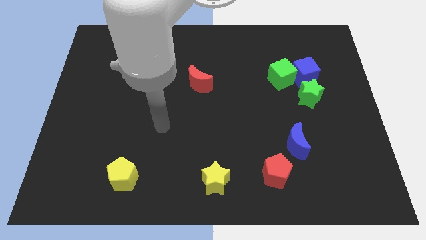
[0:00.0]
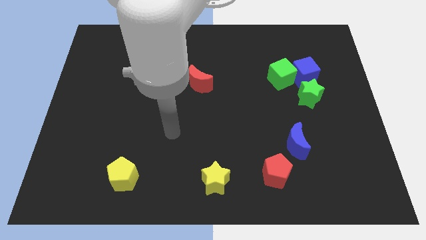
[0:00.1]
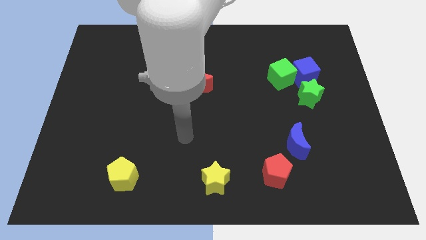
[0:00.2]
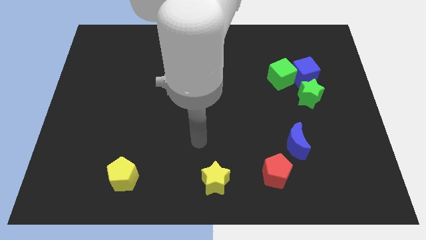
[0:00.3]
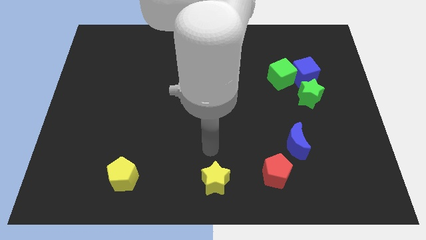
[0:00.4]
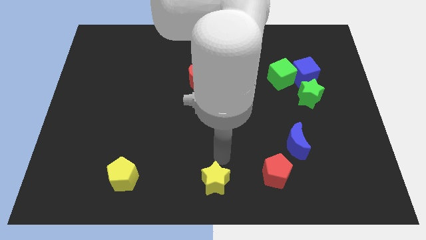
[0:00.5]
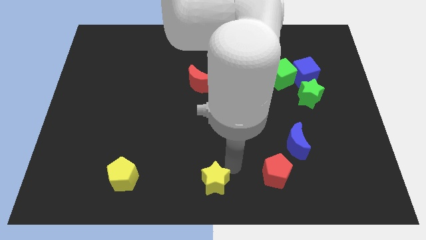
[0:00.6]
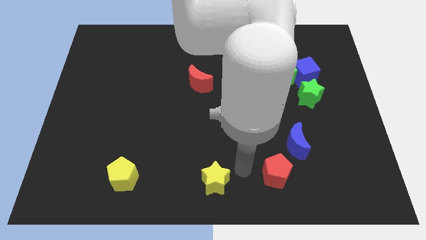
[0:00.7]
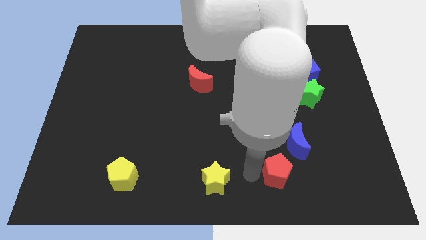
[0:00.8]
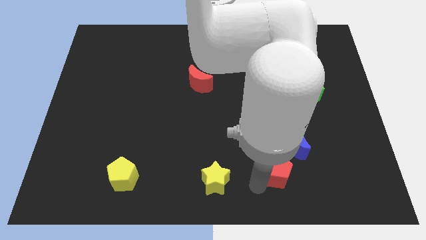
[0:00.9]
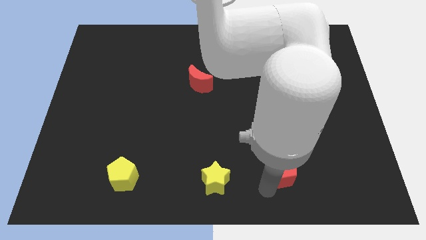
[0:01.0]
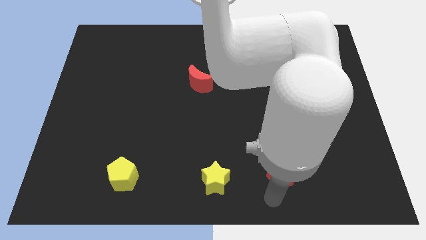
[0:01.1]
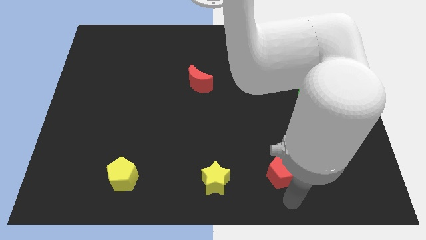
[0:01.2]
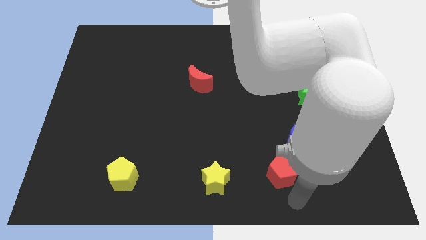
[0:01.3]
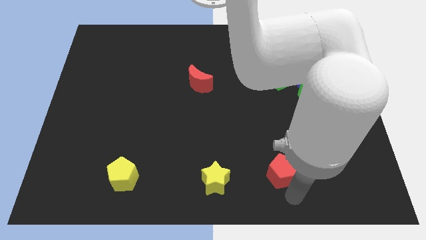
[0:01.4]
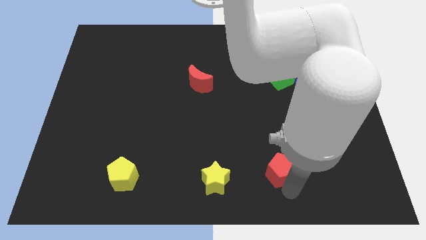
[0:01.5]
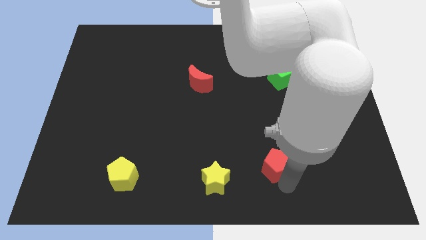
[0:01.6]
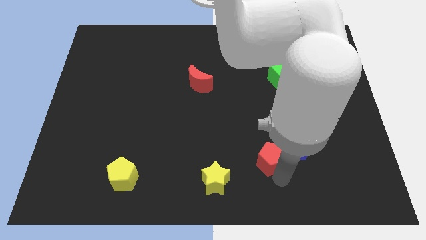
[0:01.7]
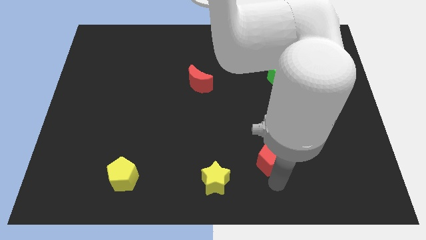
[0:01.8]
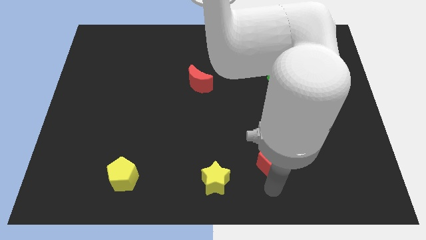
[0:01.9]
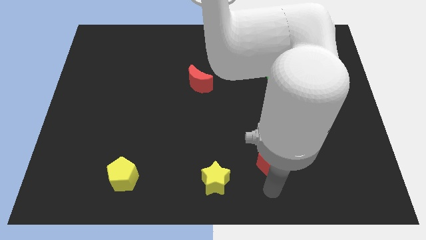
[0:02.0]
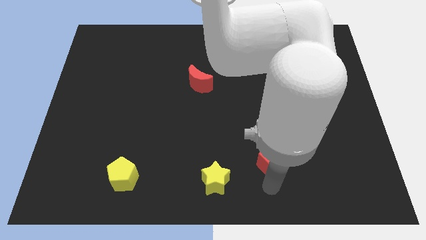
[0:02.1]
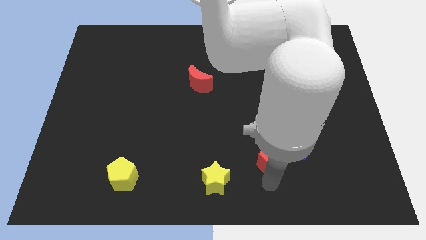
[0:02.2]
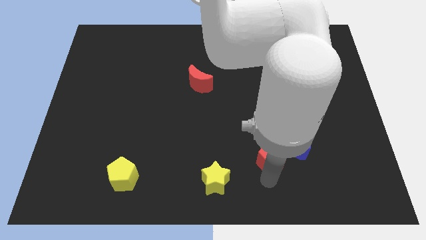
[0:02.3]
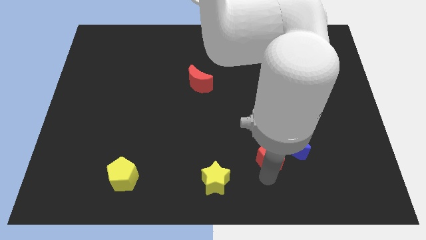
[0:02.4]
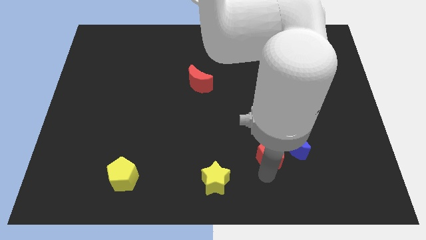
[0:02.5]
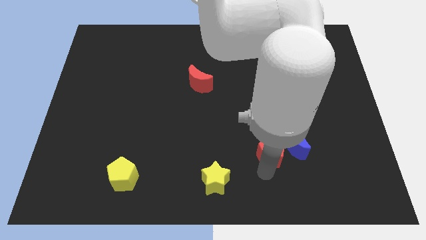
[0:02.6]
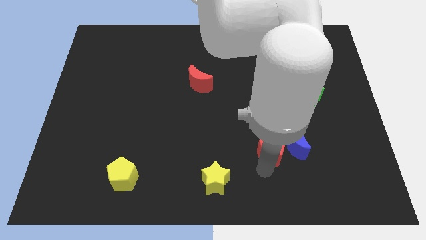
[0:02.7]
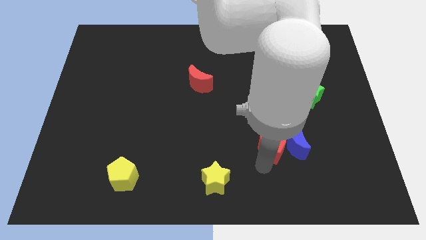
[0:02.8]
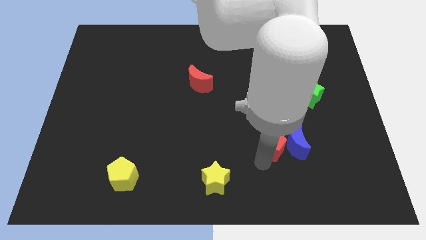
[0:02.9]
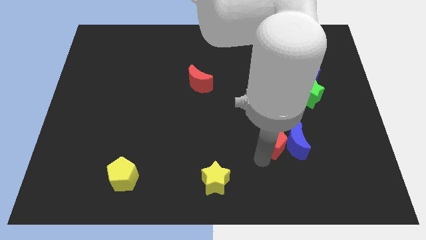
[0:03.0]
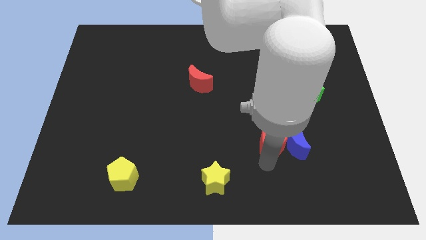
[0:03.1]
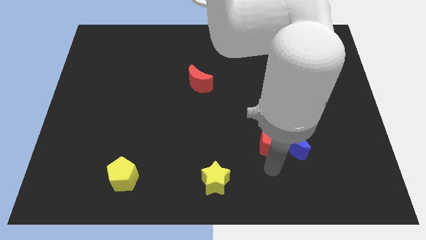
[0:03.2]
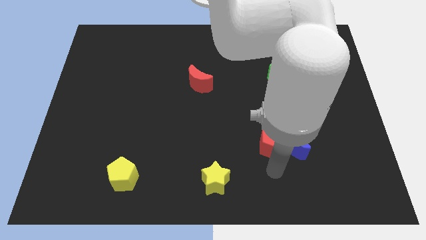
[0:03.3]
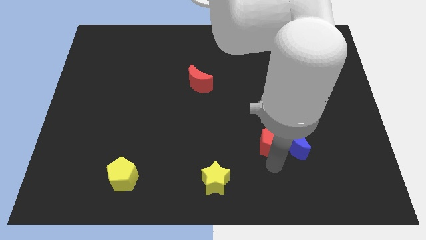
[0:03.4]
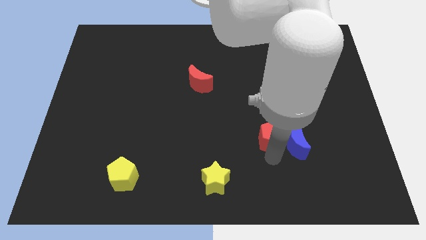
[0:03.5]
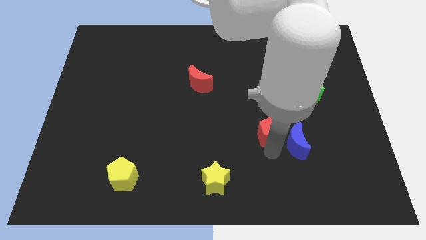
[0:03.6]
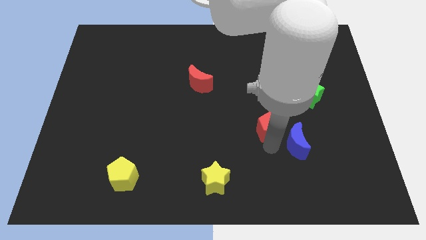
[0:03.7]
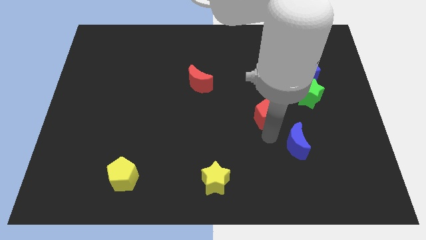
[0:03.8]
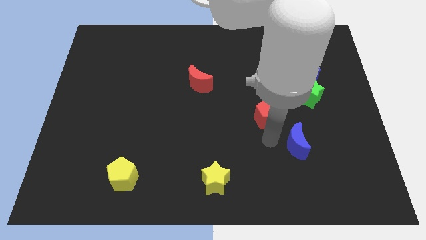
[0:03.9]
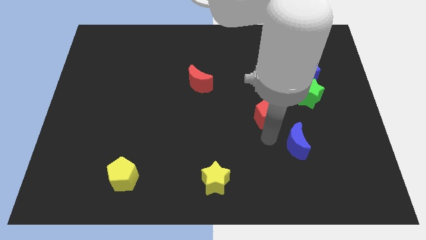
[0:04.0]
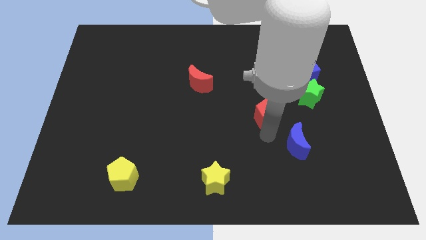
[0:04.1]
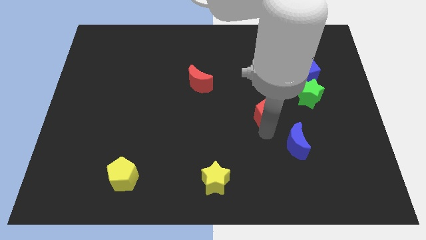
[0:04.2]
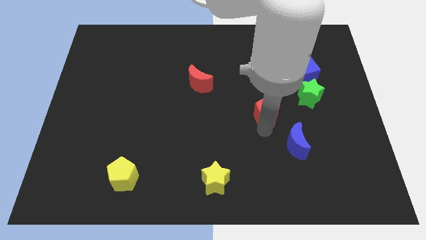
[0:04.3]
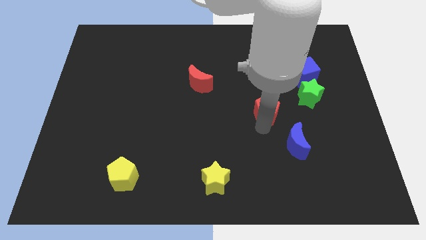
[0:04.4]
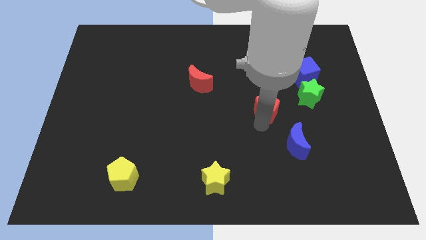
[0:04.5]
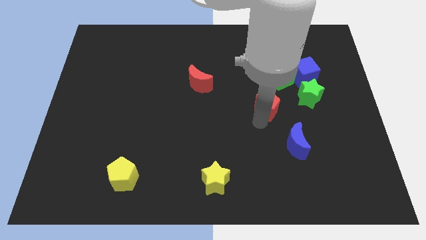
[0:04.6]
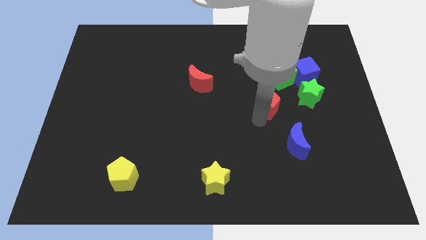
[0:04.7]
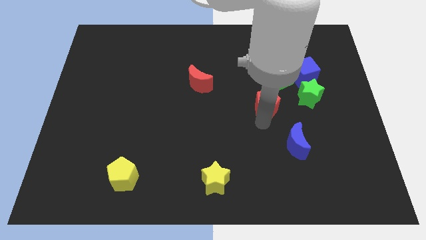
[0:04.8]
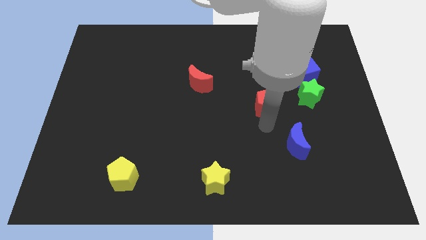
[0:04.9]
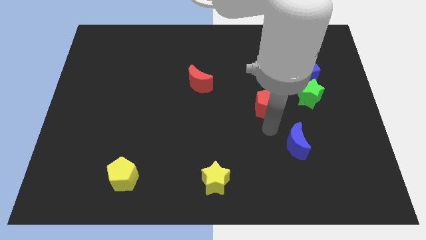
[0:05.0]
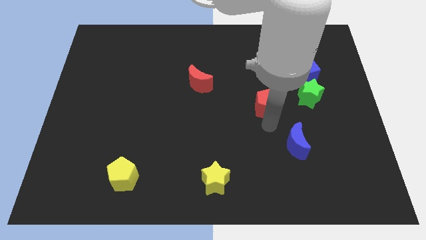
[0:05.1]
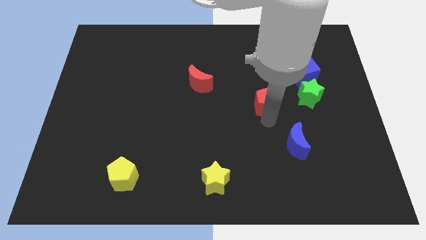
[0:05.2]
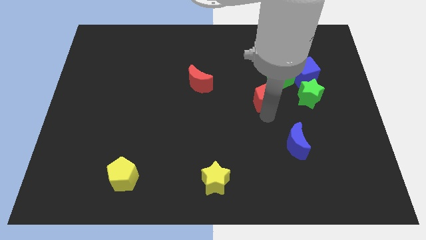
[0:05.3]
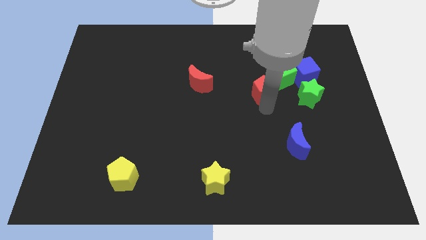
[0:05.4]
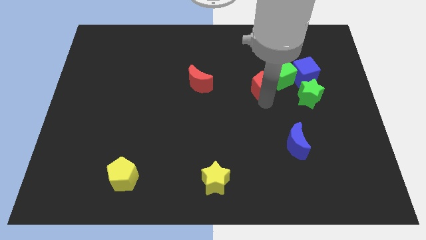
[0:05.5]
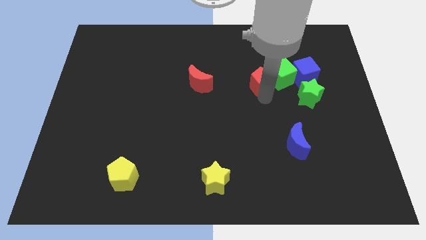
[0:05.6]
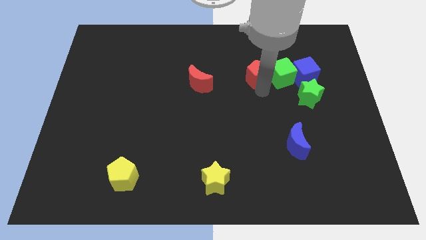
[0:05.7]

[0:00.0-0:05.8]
put the red pentagon to the top left side of the green cube
